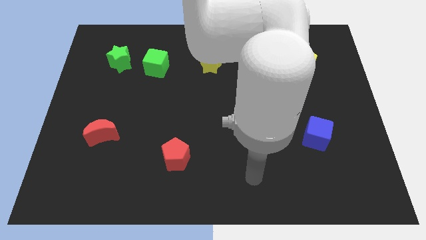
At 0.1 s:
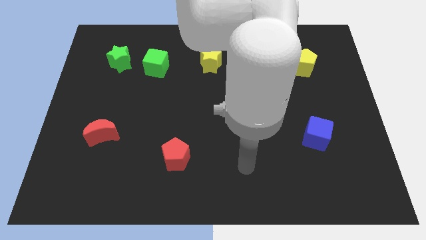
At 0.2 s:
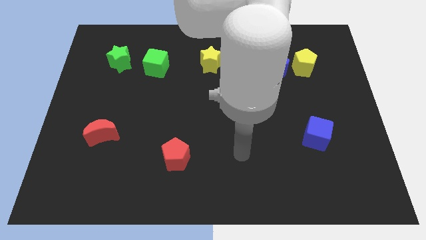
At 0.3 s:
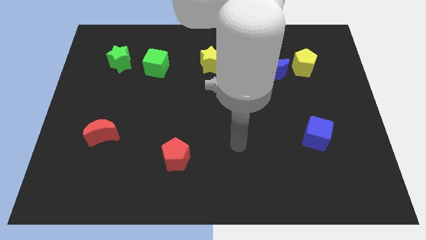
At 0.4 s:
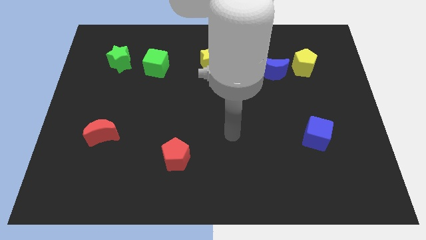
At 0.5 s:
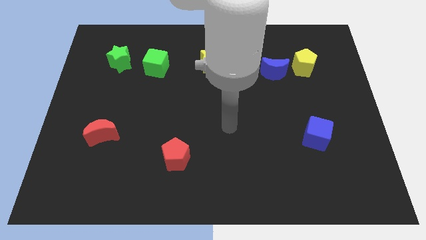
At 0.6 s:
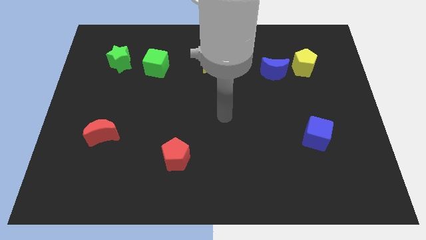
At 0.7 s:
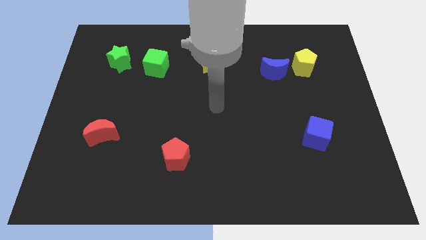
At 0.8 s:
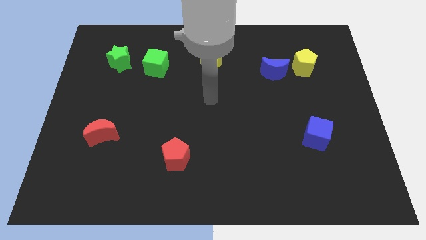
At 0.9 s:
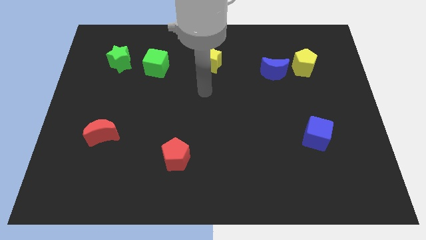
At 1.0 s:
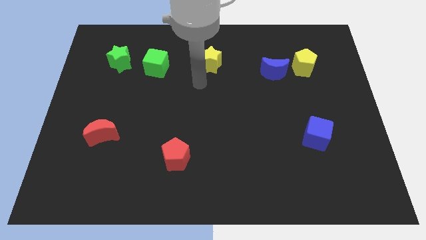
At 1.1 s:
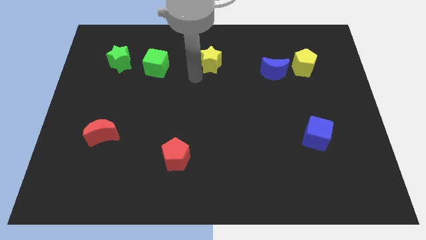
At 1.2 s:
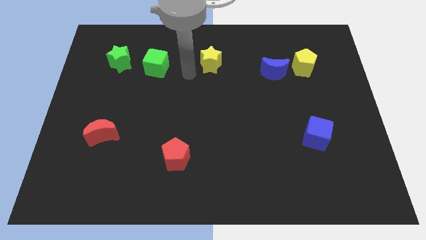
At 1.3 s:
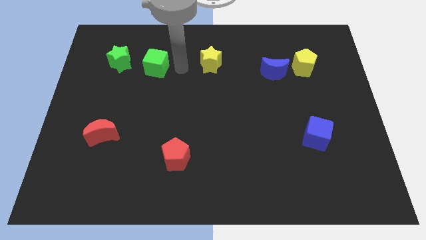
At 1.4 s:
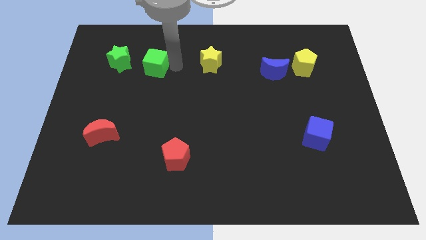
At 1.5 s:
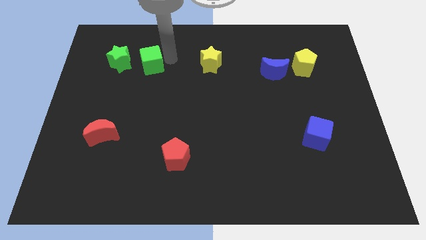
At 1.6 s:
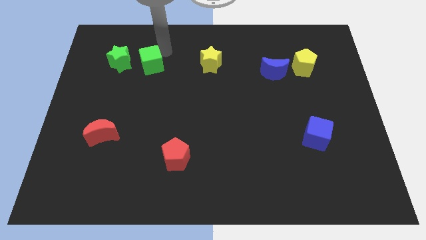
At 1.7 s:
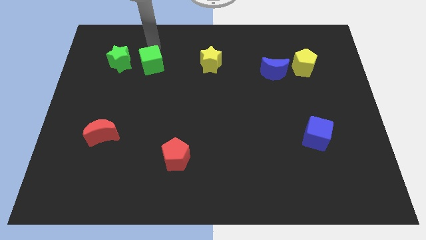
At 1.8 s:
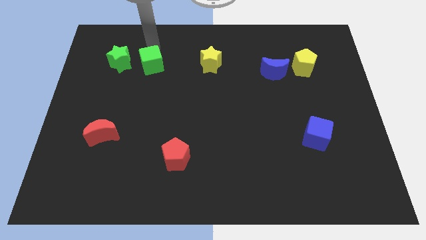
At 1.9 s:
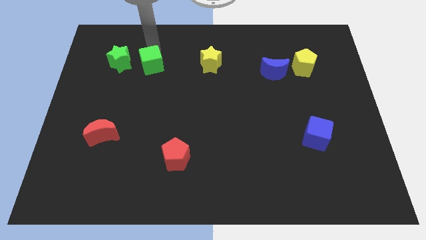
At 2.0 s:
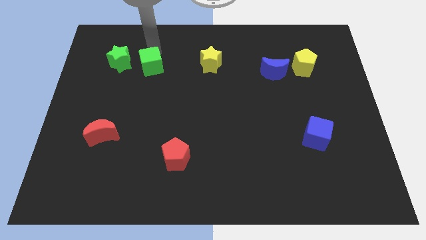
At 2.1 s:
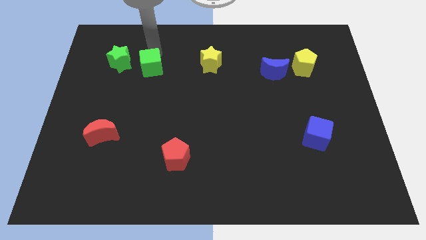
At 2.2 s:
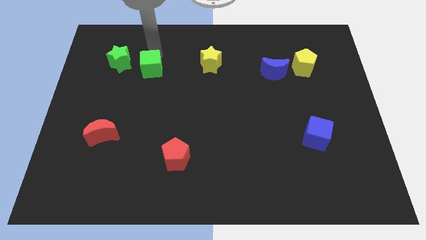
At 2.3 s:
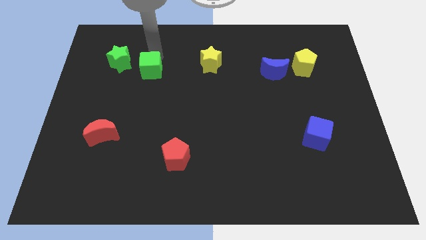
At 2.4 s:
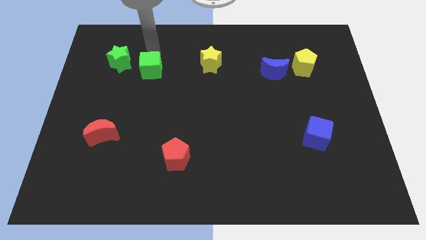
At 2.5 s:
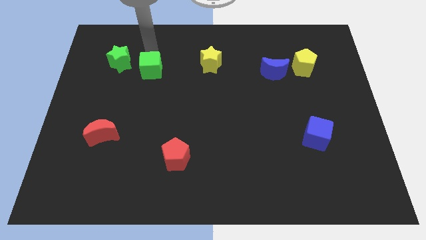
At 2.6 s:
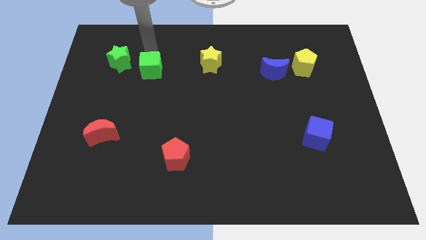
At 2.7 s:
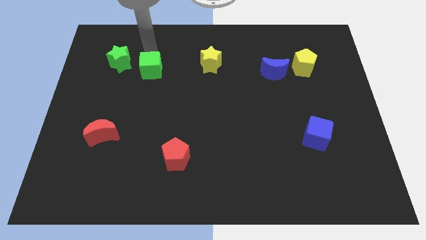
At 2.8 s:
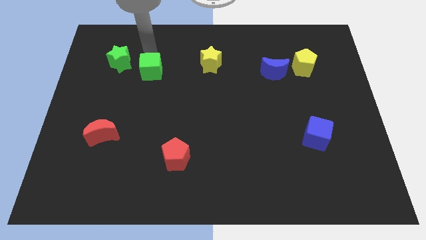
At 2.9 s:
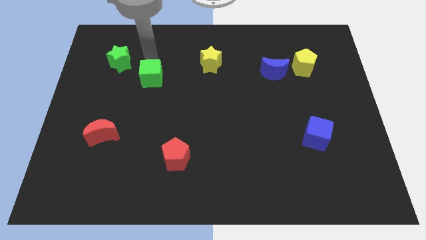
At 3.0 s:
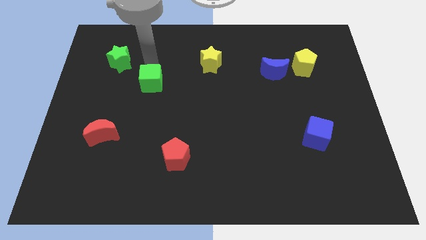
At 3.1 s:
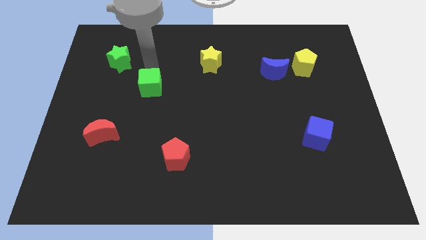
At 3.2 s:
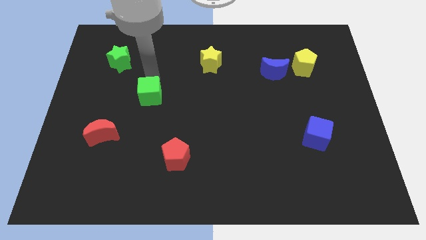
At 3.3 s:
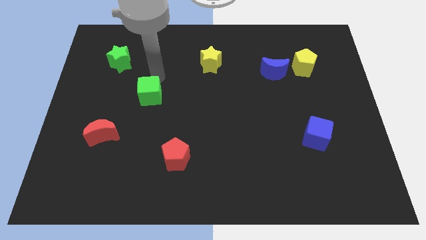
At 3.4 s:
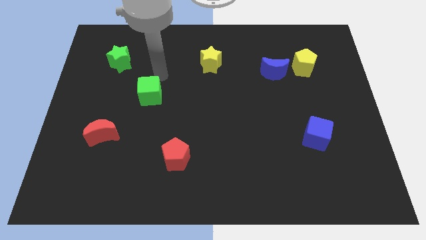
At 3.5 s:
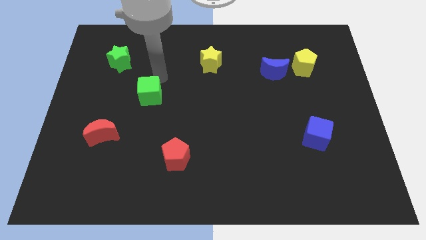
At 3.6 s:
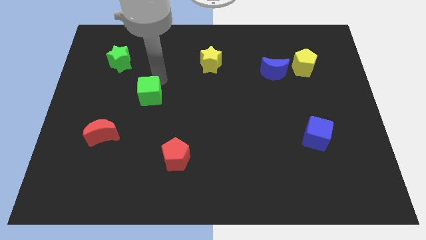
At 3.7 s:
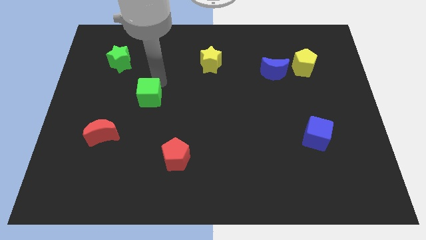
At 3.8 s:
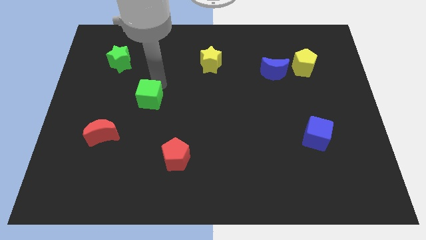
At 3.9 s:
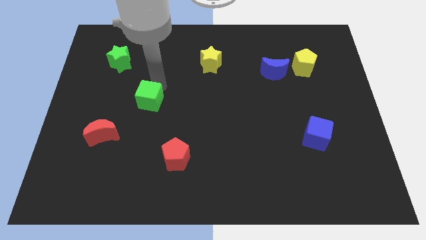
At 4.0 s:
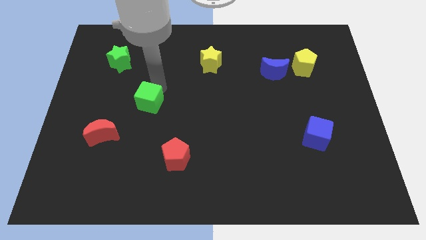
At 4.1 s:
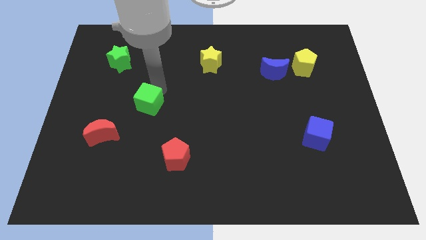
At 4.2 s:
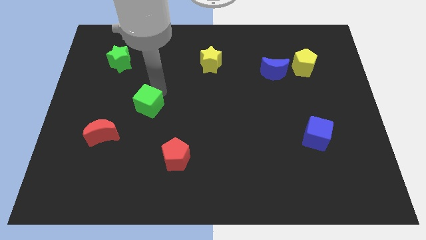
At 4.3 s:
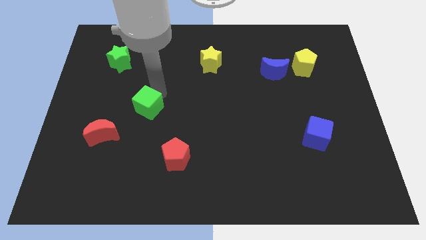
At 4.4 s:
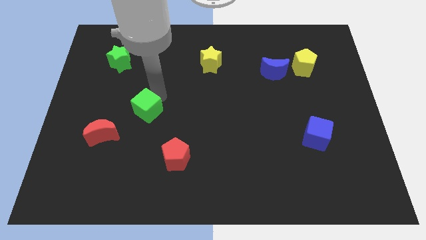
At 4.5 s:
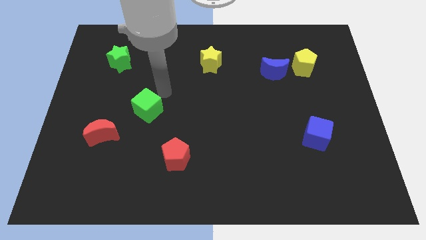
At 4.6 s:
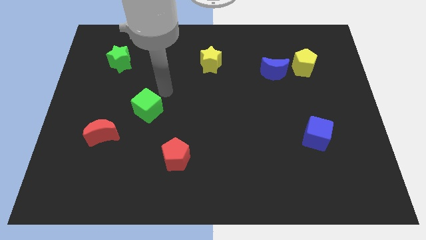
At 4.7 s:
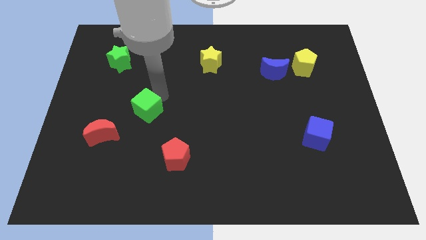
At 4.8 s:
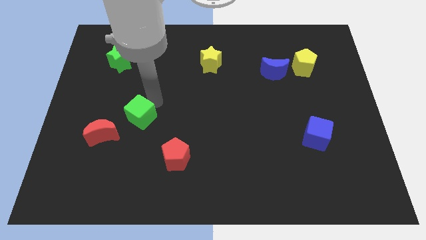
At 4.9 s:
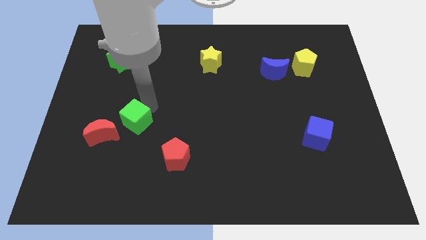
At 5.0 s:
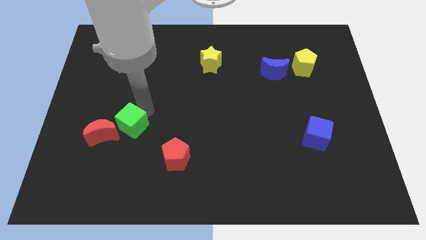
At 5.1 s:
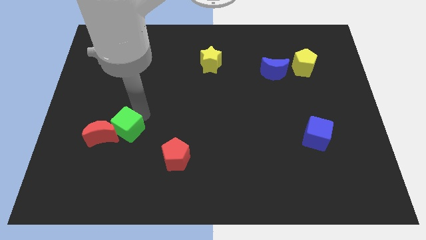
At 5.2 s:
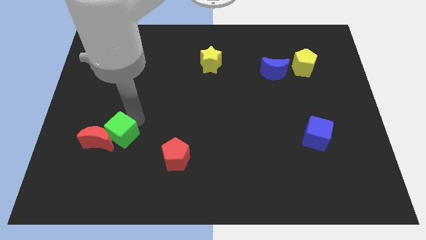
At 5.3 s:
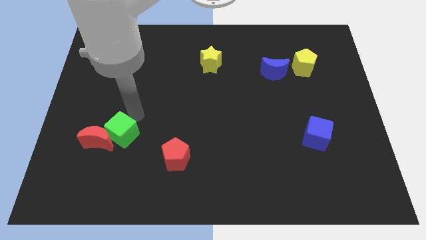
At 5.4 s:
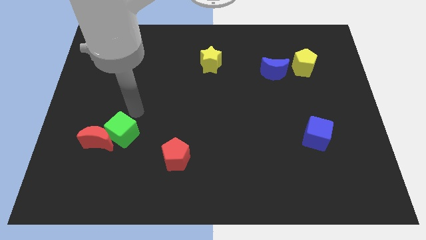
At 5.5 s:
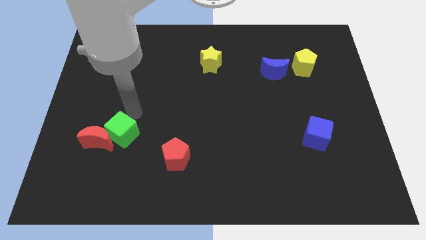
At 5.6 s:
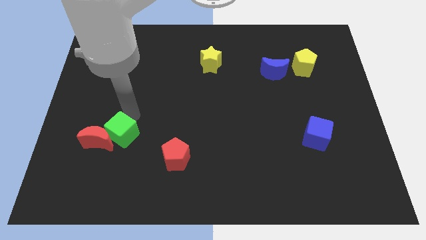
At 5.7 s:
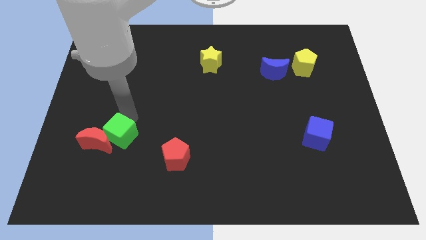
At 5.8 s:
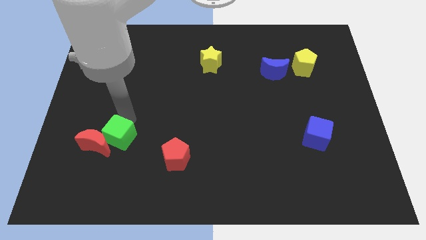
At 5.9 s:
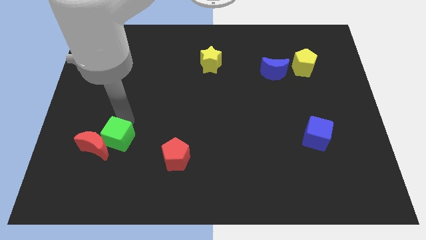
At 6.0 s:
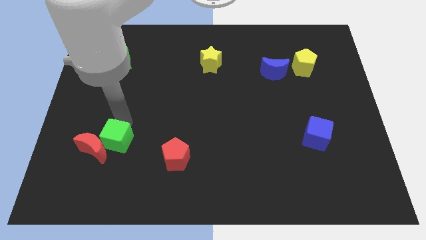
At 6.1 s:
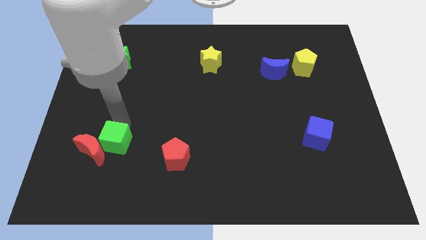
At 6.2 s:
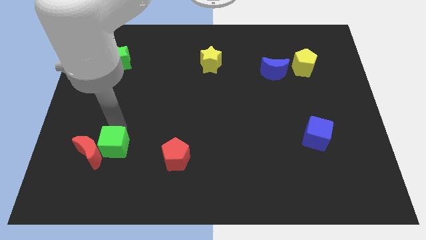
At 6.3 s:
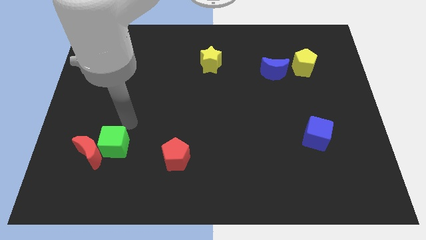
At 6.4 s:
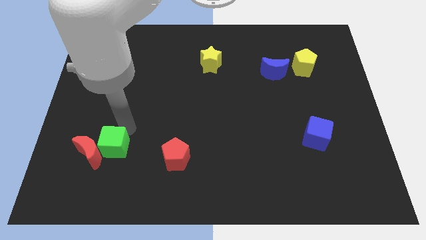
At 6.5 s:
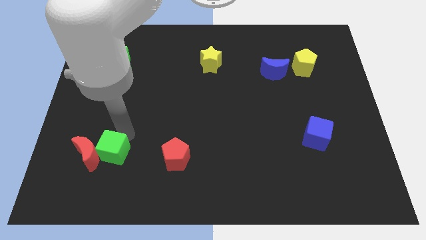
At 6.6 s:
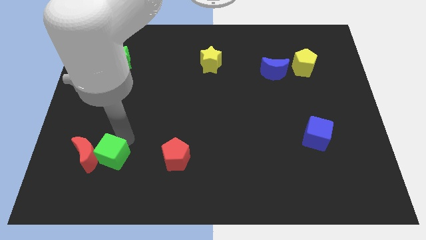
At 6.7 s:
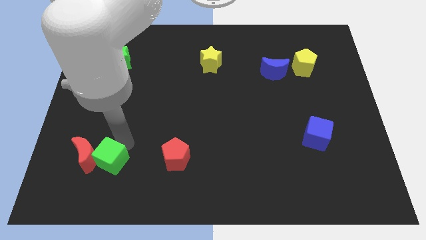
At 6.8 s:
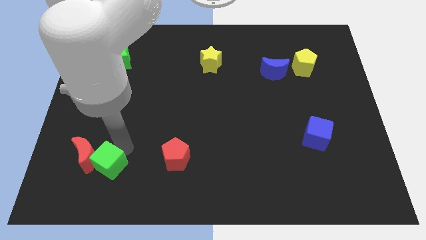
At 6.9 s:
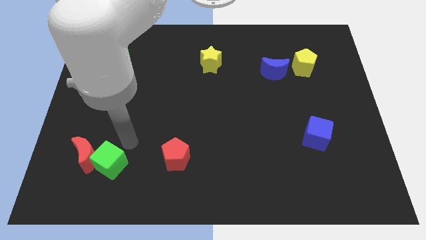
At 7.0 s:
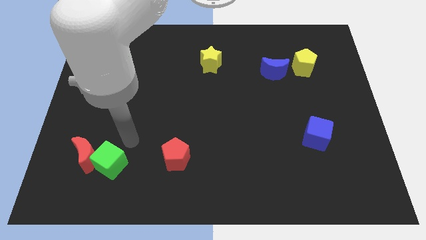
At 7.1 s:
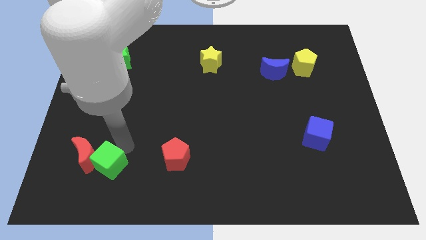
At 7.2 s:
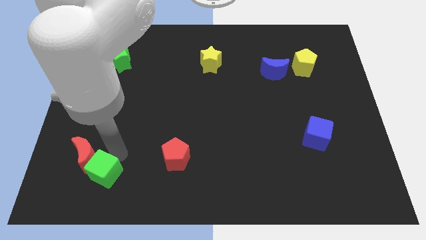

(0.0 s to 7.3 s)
push the green cube below the red moon
